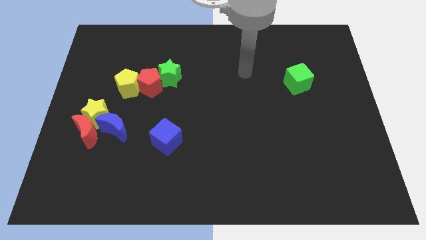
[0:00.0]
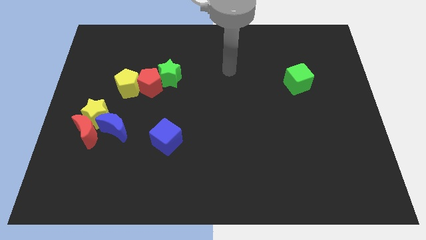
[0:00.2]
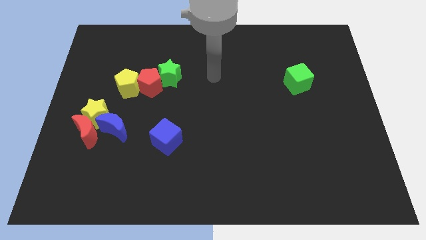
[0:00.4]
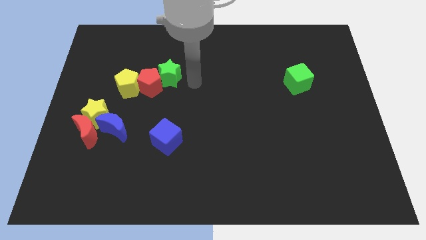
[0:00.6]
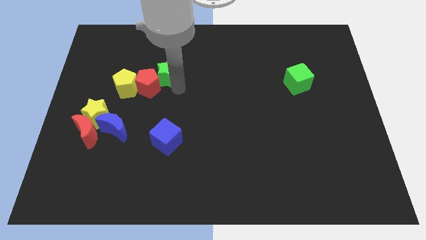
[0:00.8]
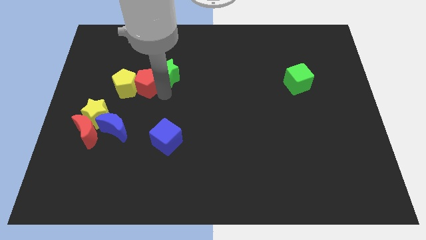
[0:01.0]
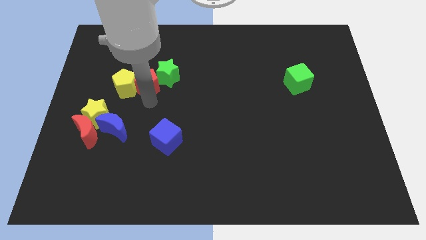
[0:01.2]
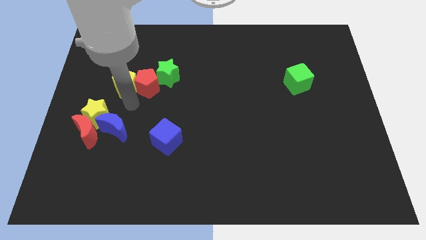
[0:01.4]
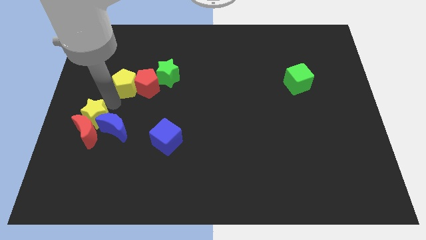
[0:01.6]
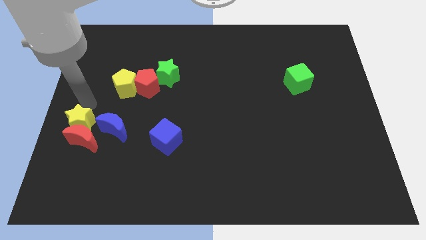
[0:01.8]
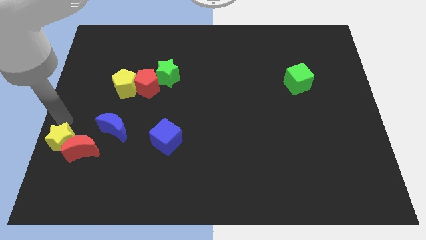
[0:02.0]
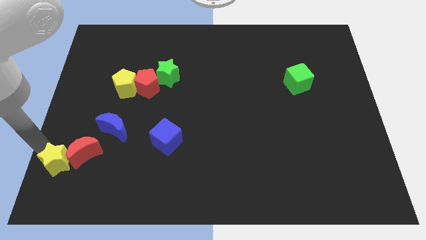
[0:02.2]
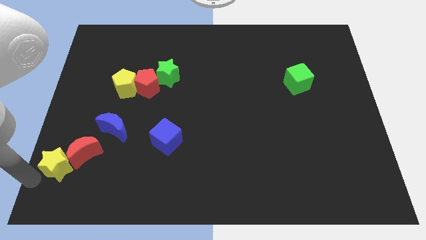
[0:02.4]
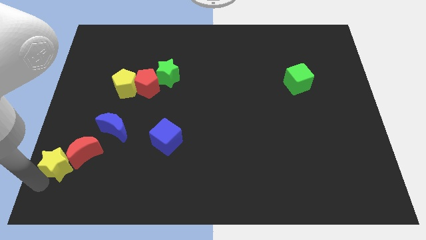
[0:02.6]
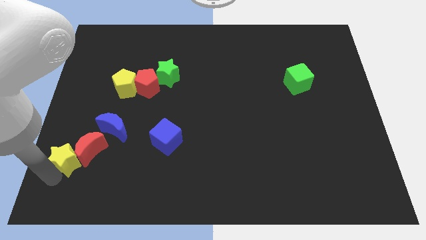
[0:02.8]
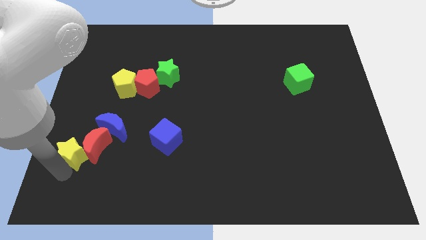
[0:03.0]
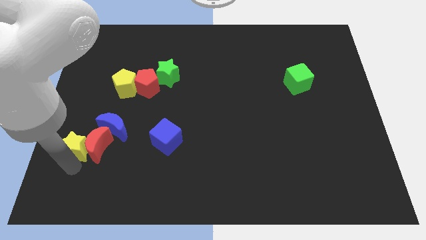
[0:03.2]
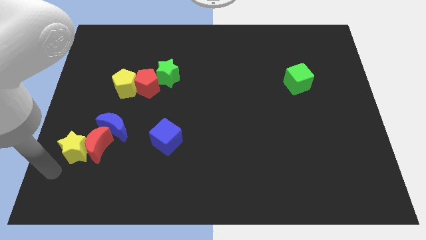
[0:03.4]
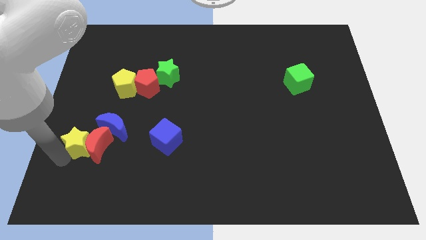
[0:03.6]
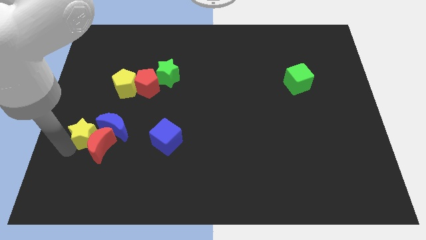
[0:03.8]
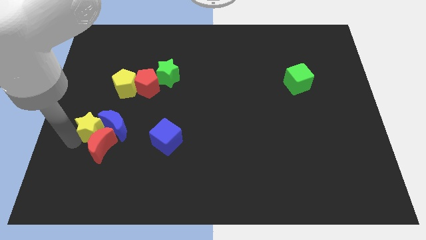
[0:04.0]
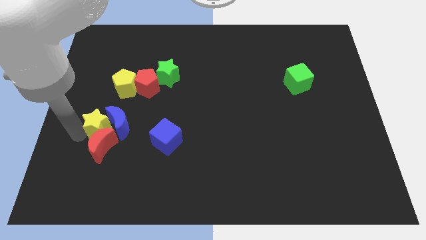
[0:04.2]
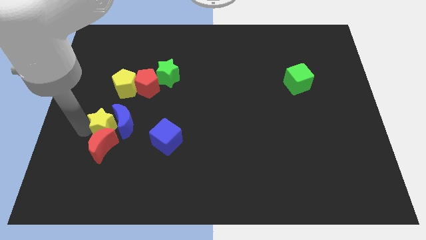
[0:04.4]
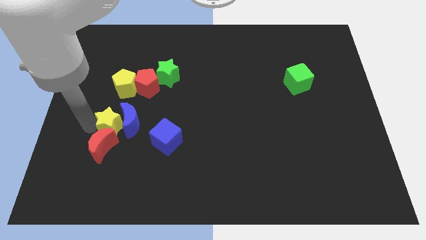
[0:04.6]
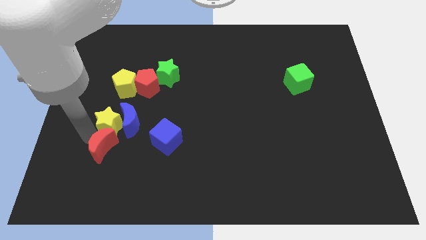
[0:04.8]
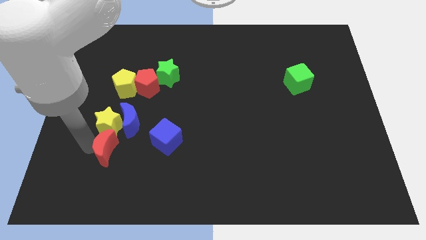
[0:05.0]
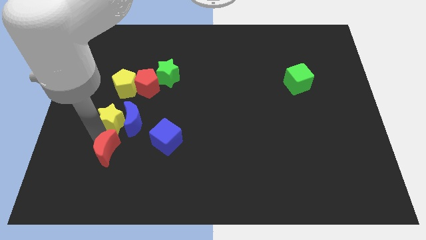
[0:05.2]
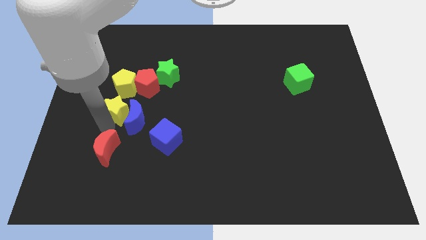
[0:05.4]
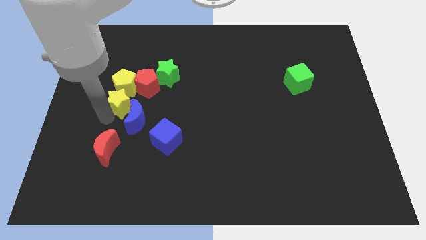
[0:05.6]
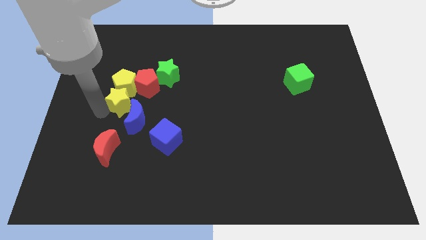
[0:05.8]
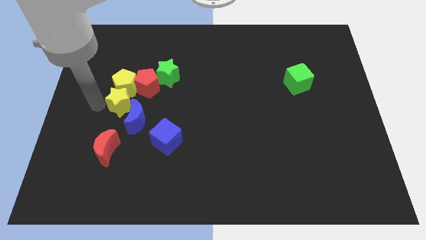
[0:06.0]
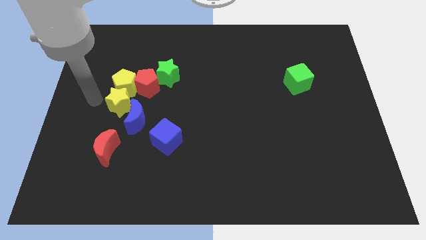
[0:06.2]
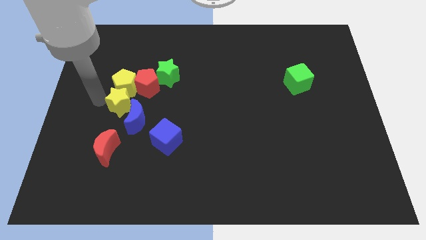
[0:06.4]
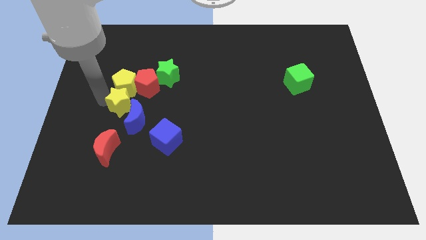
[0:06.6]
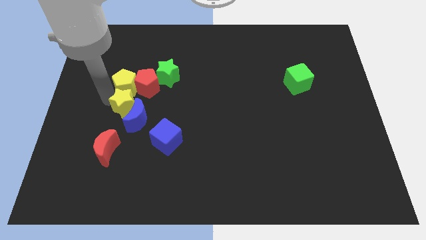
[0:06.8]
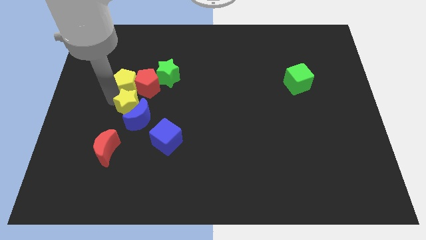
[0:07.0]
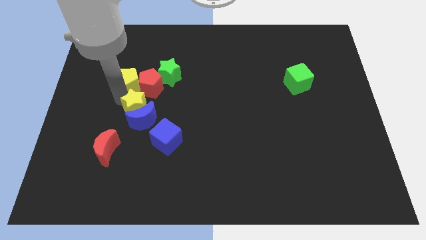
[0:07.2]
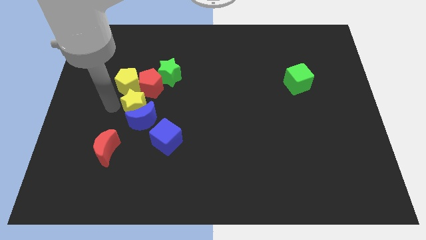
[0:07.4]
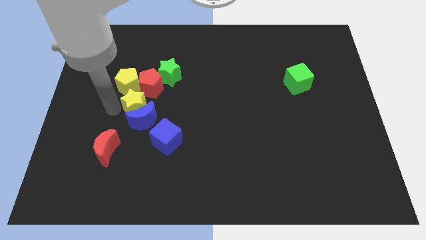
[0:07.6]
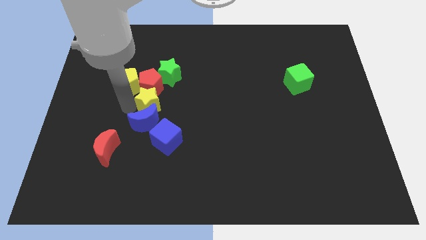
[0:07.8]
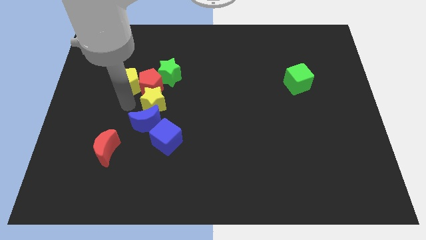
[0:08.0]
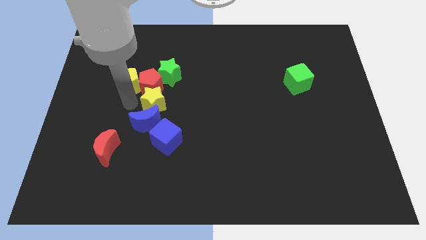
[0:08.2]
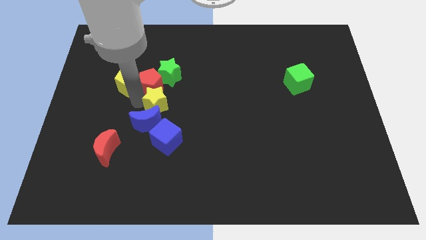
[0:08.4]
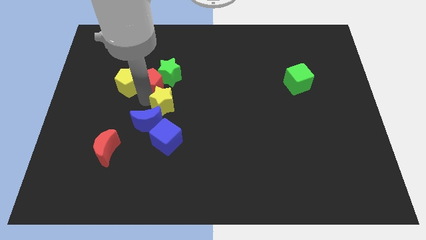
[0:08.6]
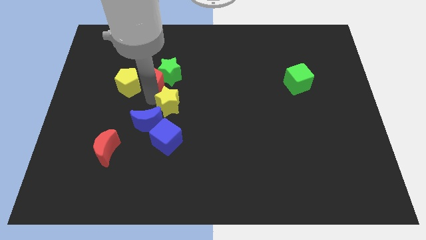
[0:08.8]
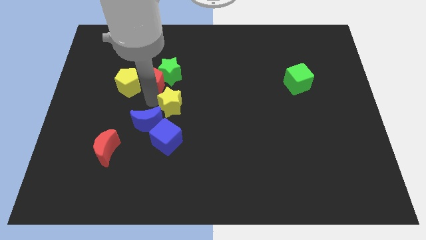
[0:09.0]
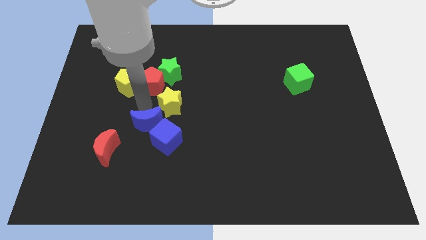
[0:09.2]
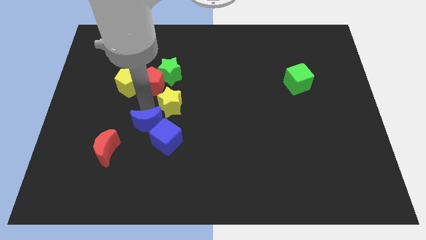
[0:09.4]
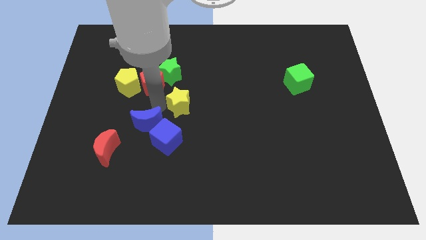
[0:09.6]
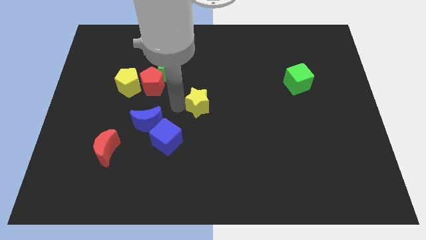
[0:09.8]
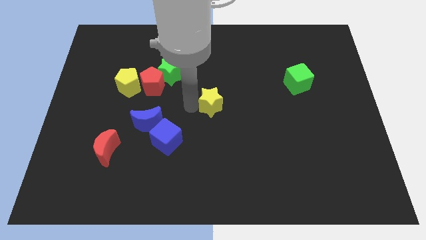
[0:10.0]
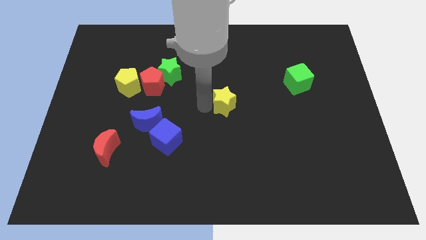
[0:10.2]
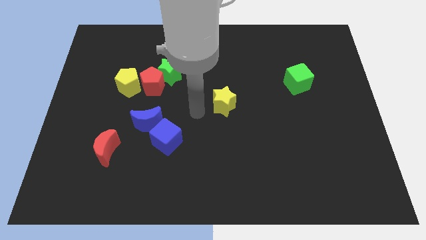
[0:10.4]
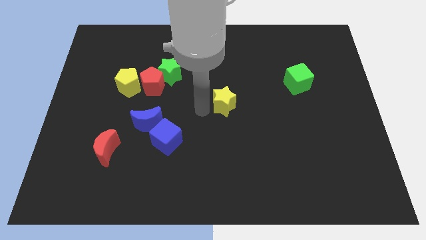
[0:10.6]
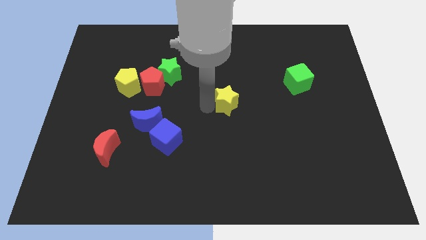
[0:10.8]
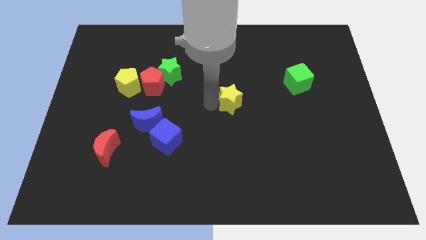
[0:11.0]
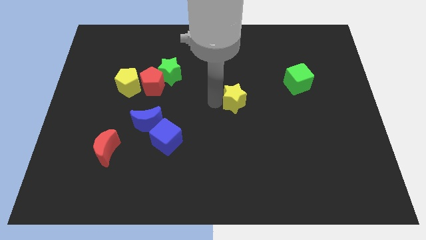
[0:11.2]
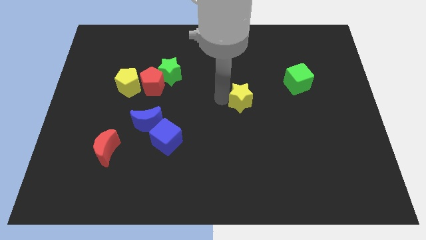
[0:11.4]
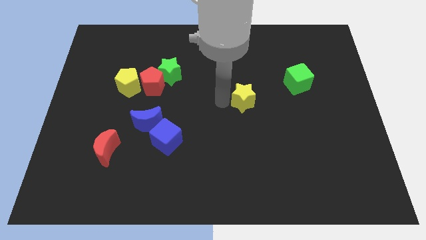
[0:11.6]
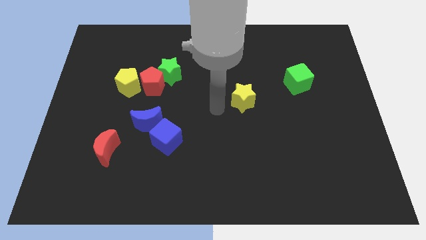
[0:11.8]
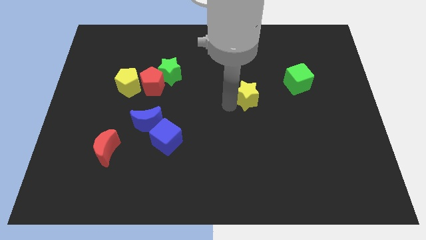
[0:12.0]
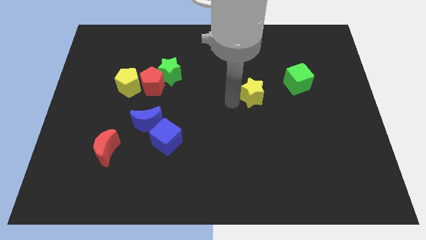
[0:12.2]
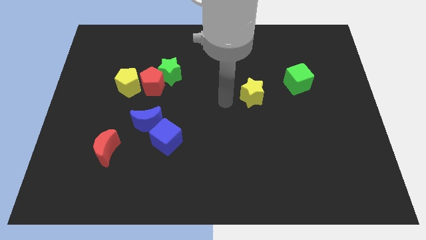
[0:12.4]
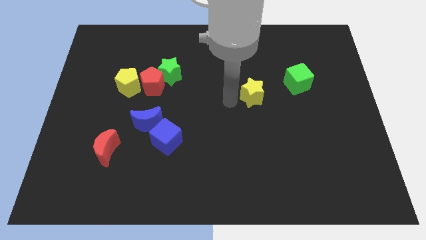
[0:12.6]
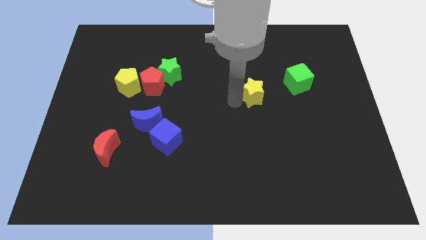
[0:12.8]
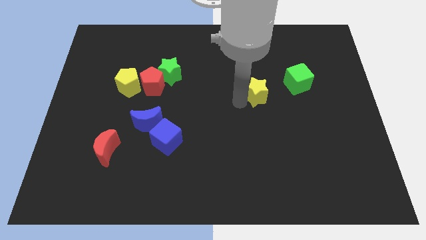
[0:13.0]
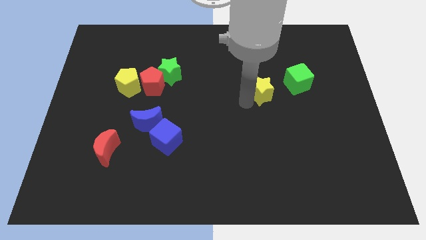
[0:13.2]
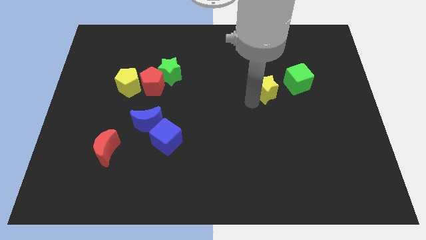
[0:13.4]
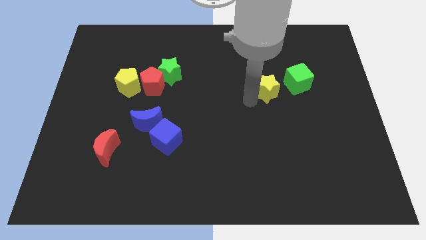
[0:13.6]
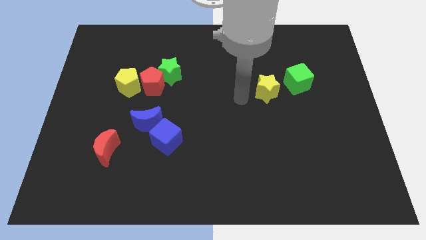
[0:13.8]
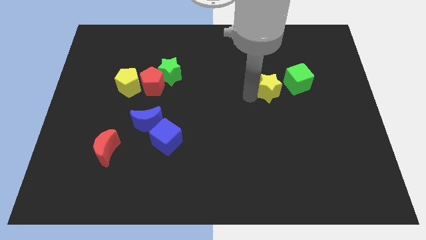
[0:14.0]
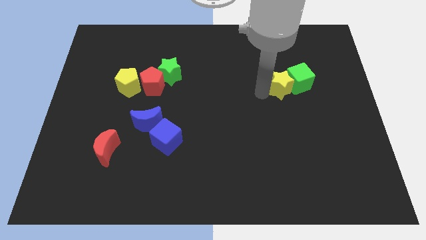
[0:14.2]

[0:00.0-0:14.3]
put the yellow star close to the green cube
